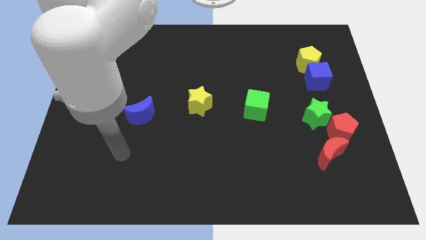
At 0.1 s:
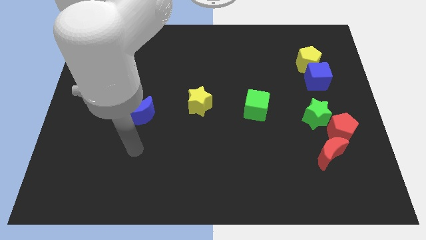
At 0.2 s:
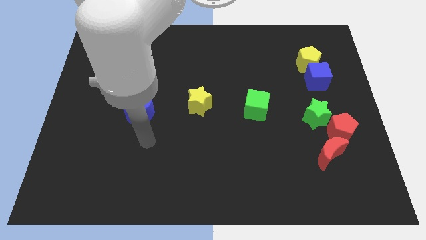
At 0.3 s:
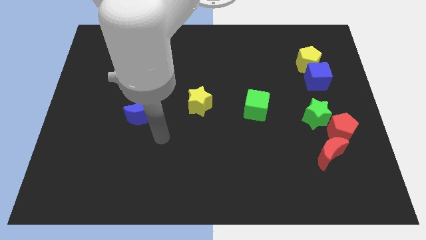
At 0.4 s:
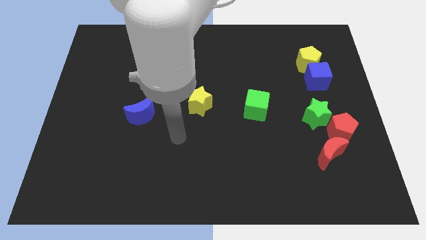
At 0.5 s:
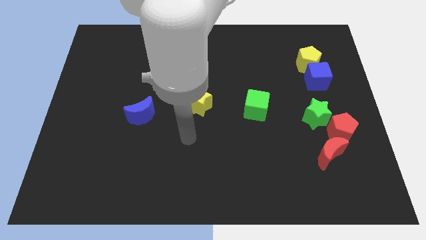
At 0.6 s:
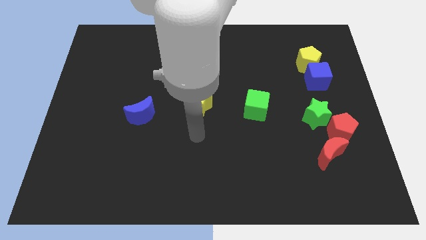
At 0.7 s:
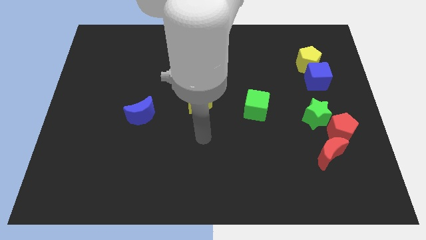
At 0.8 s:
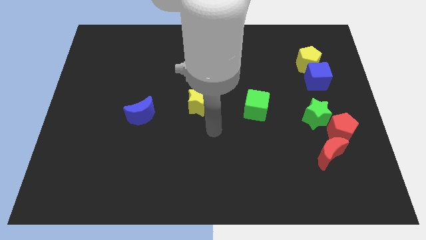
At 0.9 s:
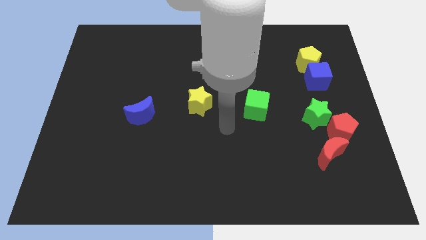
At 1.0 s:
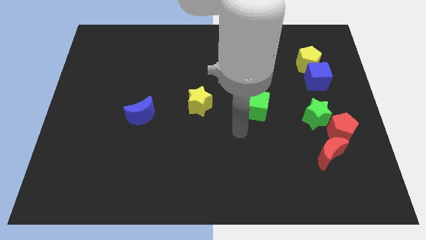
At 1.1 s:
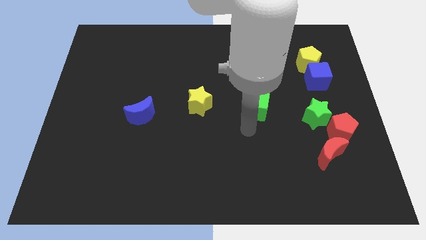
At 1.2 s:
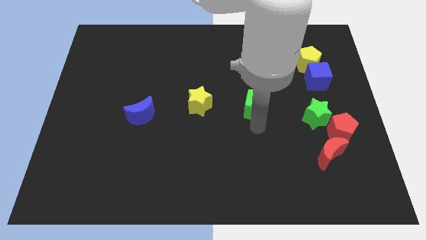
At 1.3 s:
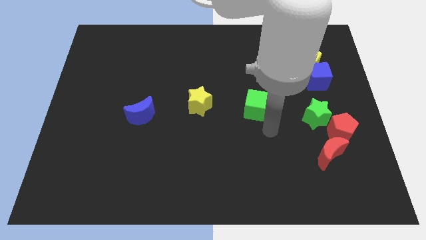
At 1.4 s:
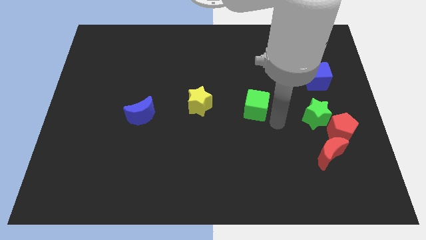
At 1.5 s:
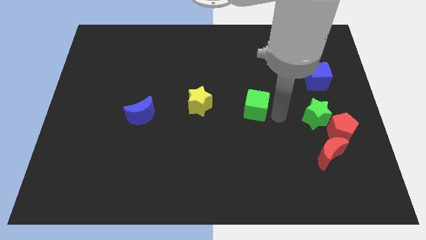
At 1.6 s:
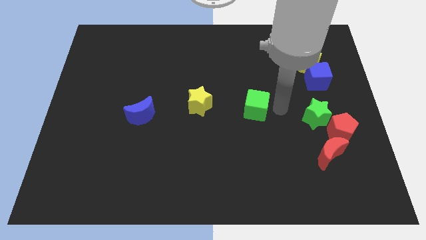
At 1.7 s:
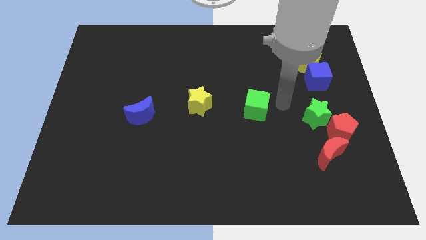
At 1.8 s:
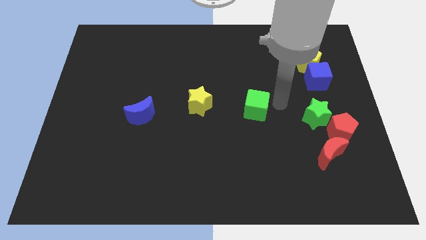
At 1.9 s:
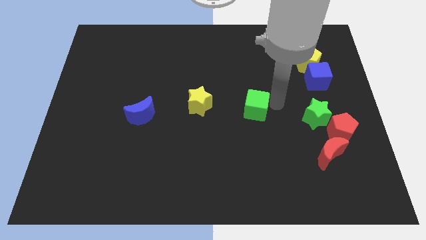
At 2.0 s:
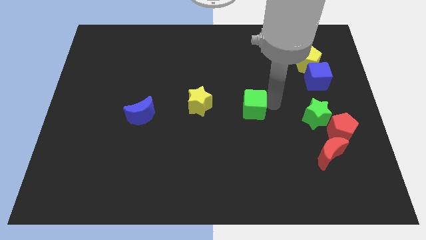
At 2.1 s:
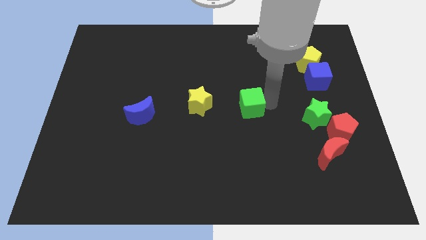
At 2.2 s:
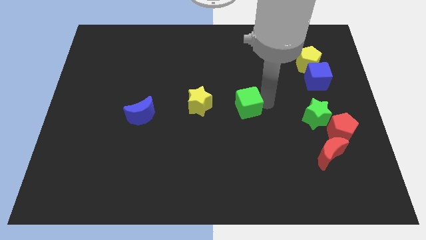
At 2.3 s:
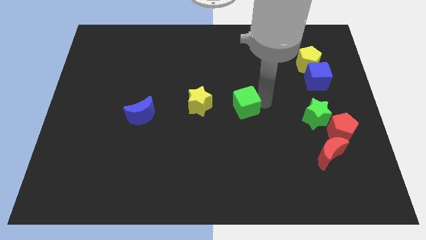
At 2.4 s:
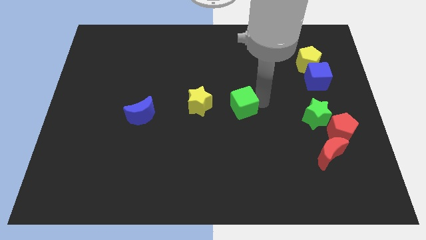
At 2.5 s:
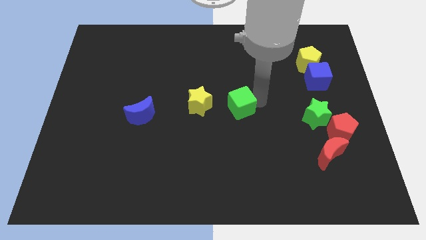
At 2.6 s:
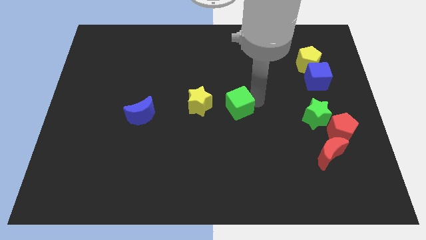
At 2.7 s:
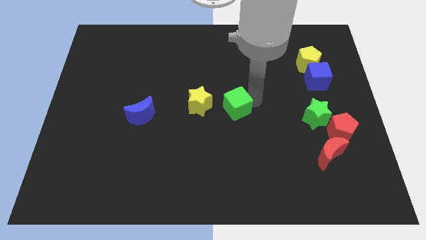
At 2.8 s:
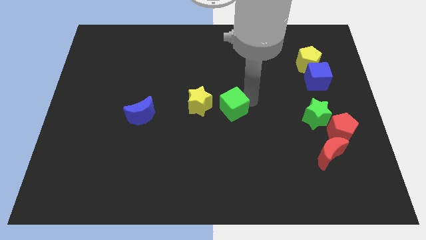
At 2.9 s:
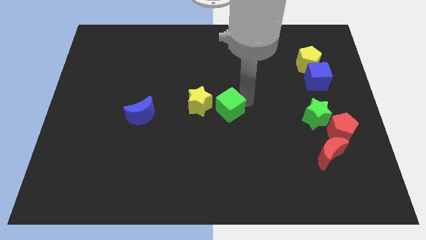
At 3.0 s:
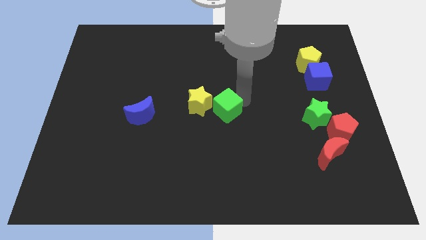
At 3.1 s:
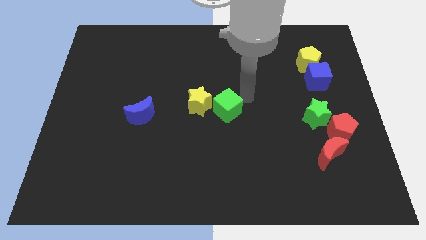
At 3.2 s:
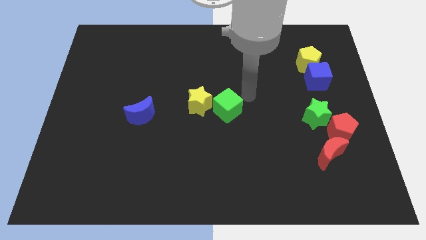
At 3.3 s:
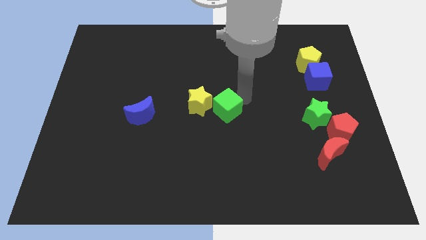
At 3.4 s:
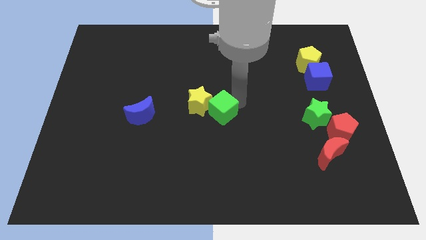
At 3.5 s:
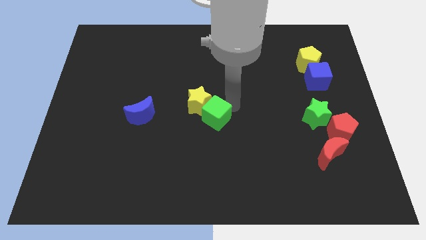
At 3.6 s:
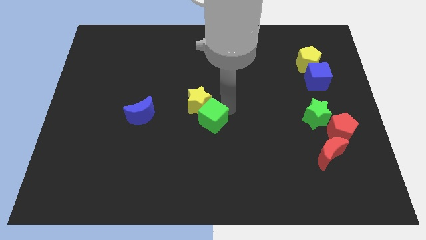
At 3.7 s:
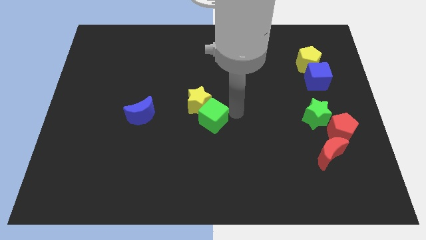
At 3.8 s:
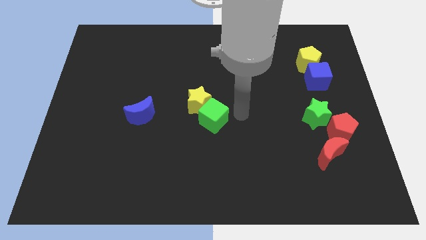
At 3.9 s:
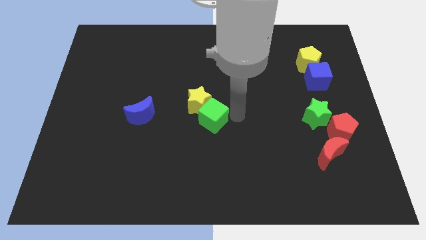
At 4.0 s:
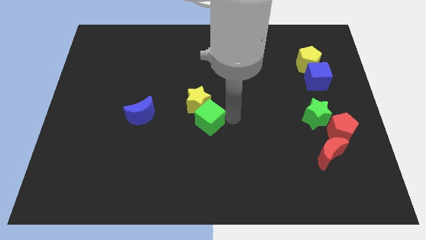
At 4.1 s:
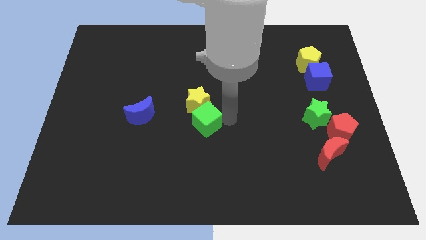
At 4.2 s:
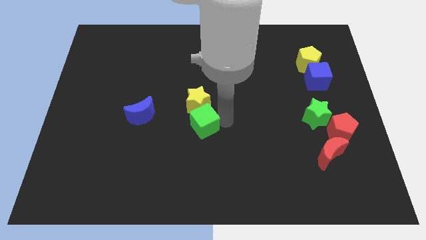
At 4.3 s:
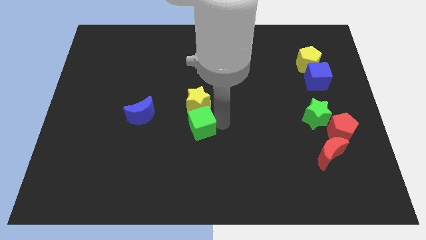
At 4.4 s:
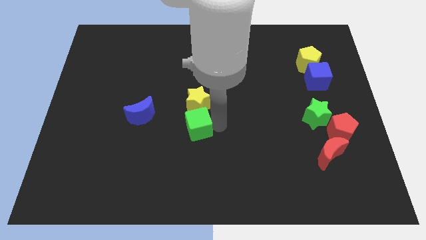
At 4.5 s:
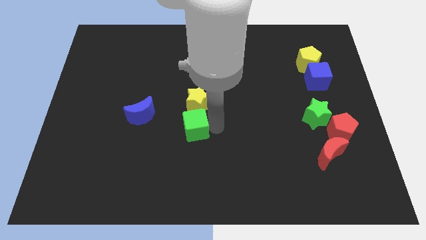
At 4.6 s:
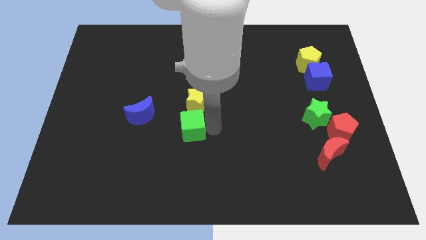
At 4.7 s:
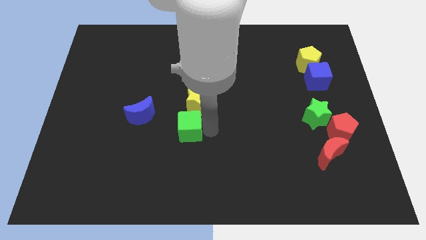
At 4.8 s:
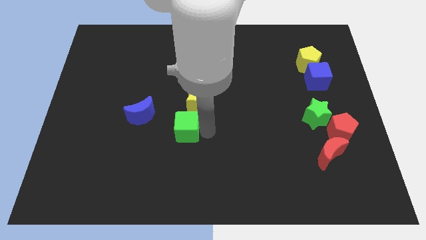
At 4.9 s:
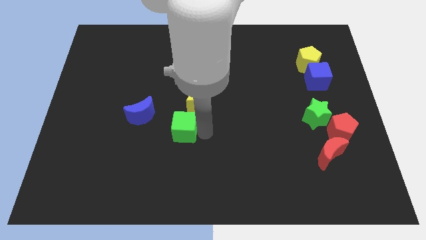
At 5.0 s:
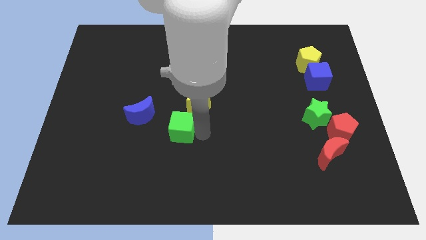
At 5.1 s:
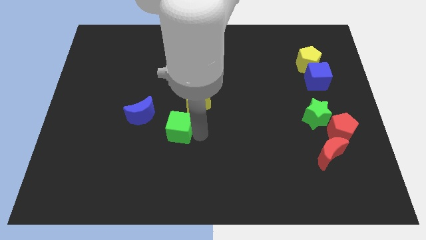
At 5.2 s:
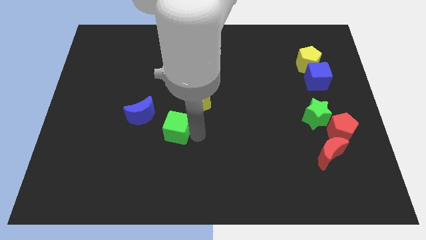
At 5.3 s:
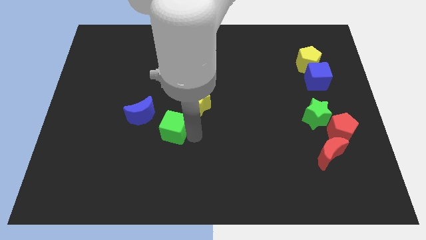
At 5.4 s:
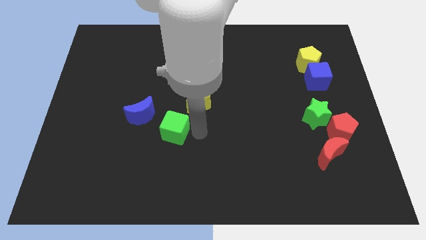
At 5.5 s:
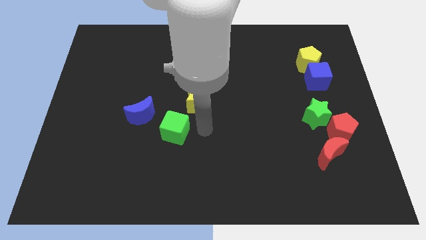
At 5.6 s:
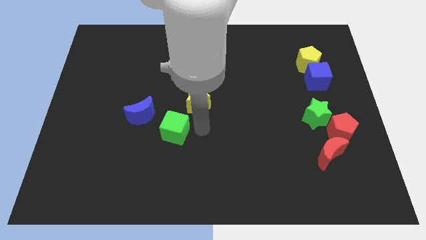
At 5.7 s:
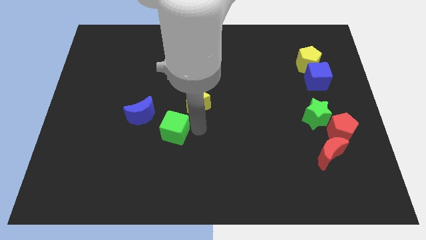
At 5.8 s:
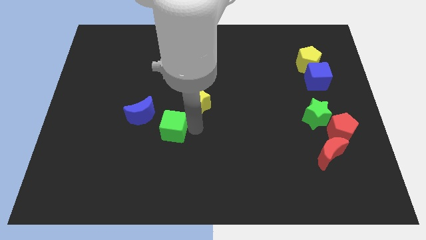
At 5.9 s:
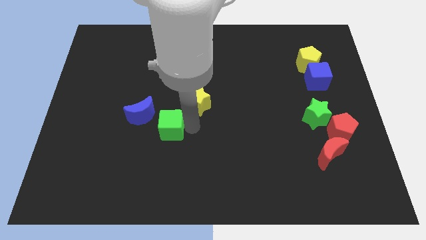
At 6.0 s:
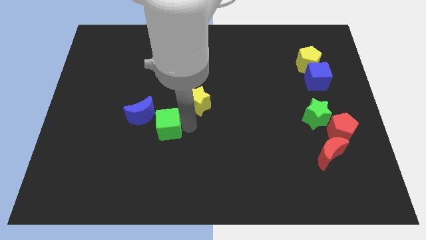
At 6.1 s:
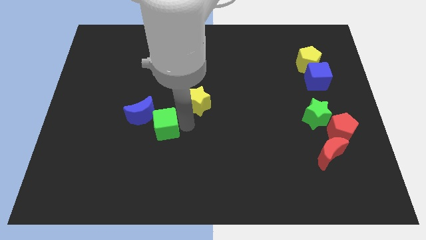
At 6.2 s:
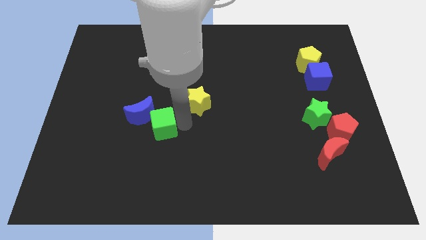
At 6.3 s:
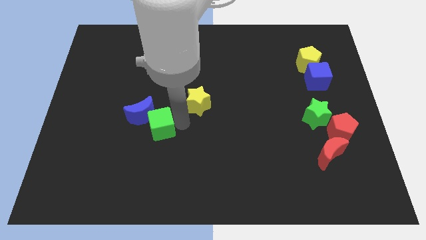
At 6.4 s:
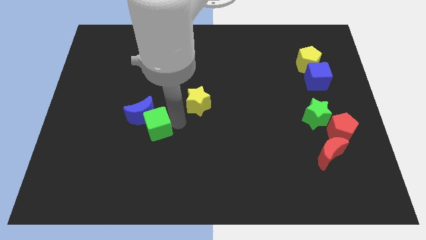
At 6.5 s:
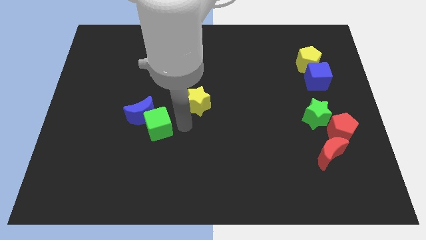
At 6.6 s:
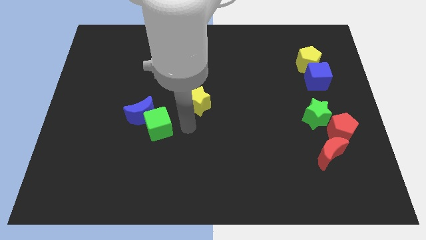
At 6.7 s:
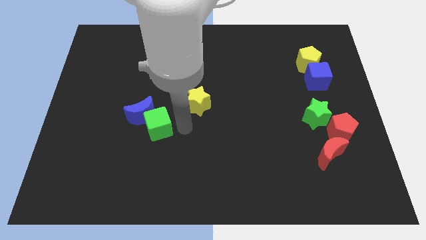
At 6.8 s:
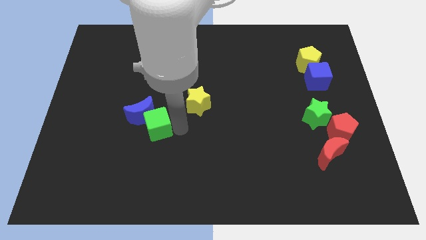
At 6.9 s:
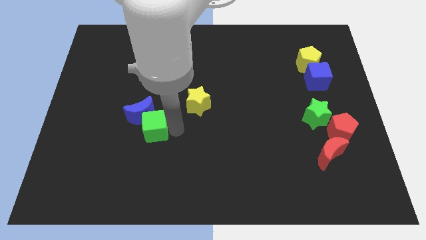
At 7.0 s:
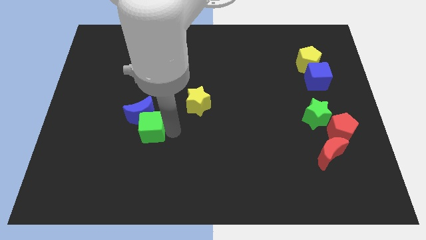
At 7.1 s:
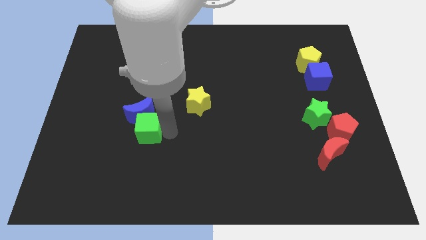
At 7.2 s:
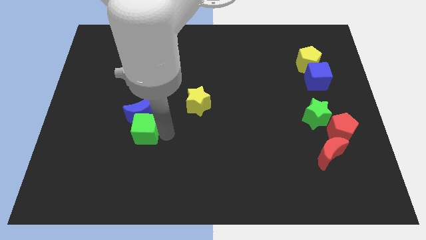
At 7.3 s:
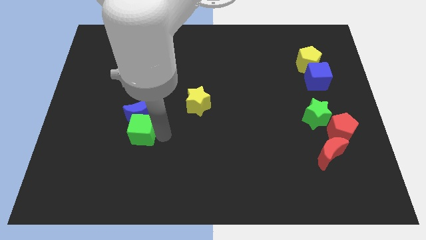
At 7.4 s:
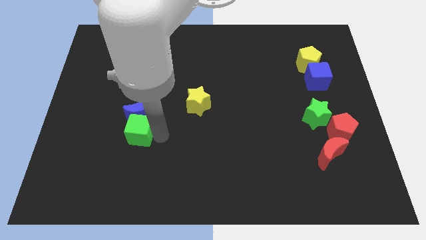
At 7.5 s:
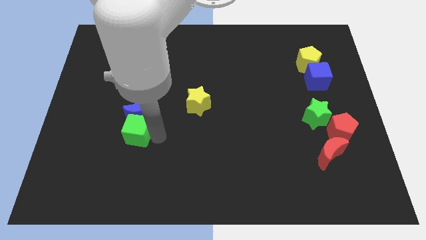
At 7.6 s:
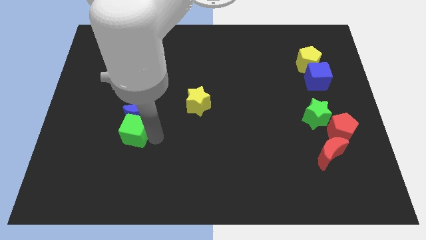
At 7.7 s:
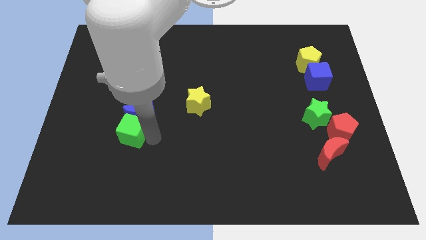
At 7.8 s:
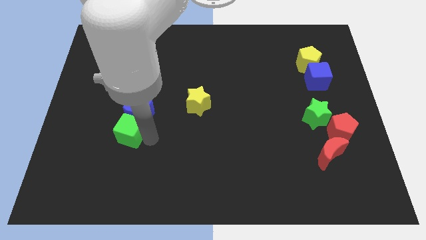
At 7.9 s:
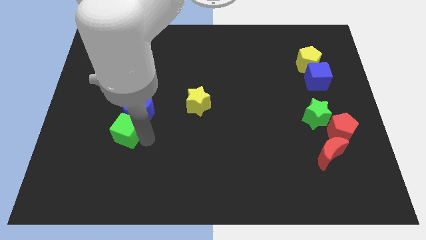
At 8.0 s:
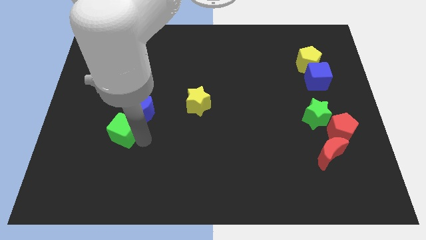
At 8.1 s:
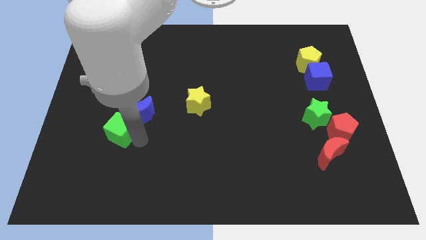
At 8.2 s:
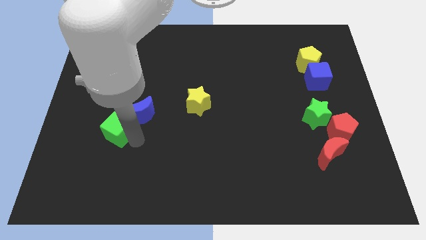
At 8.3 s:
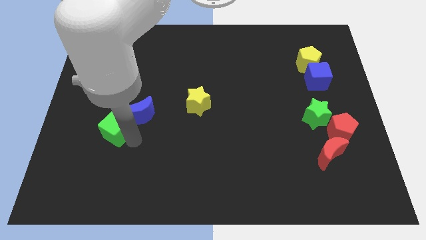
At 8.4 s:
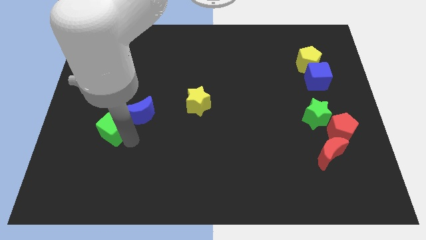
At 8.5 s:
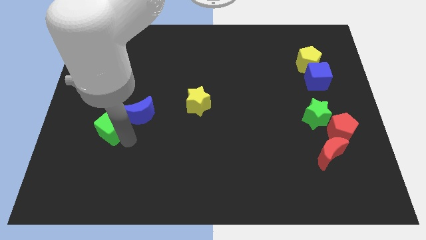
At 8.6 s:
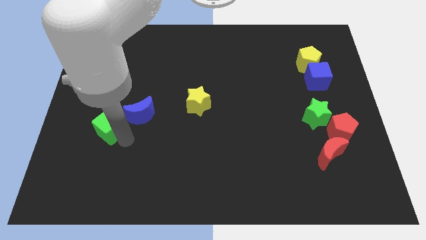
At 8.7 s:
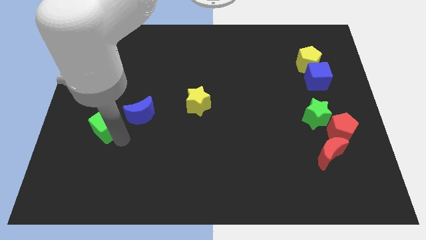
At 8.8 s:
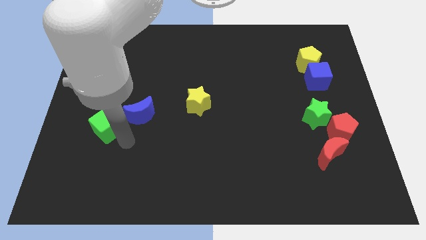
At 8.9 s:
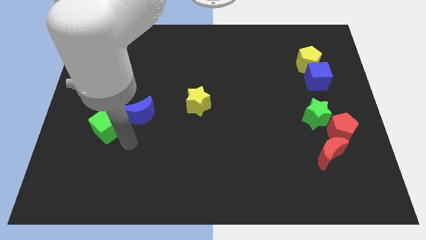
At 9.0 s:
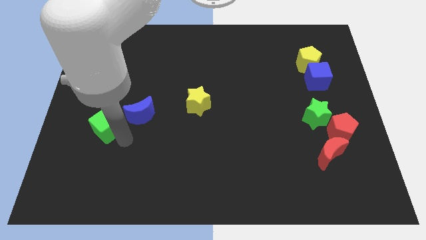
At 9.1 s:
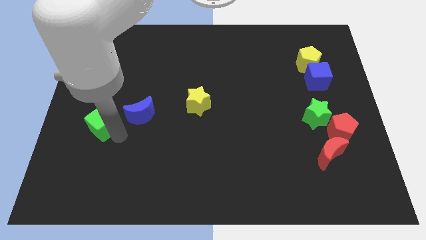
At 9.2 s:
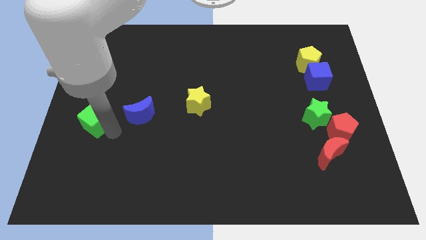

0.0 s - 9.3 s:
put the green cube to the left side
